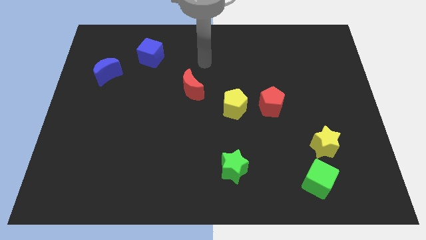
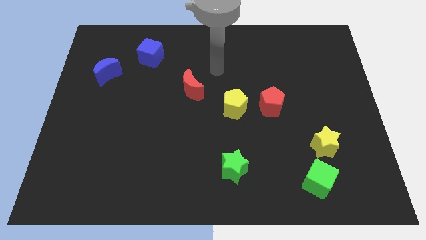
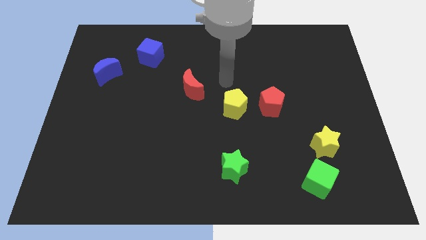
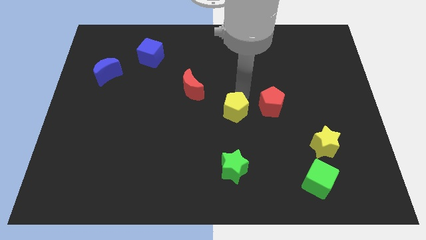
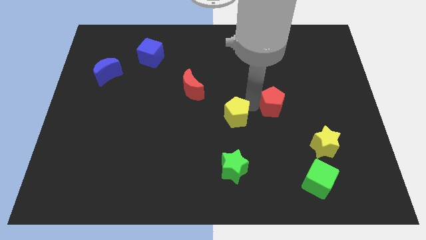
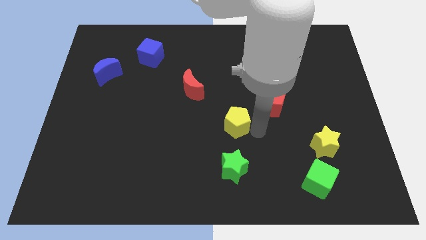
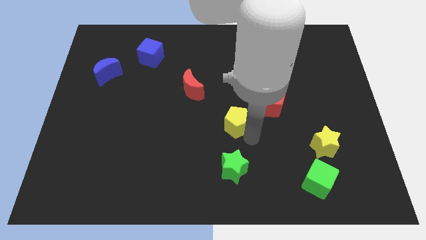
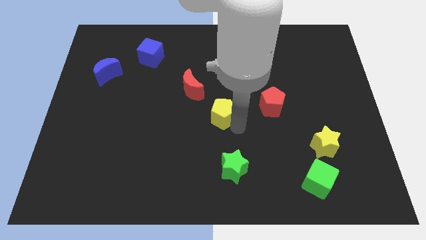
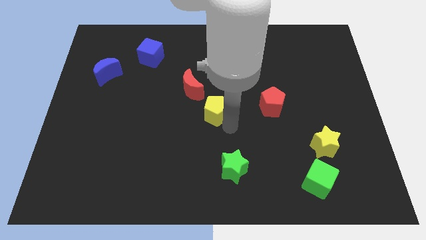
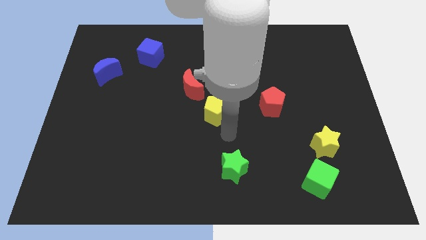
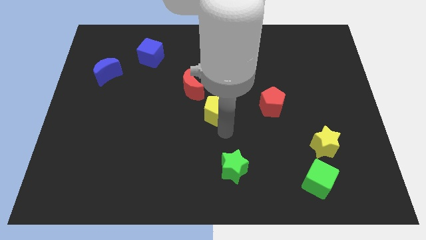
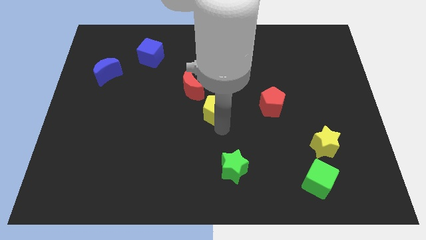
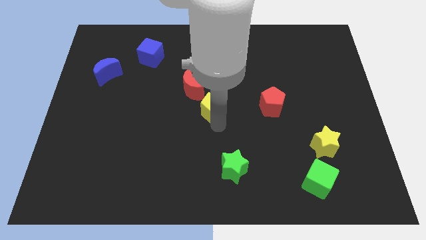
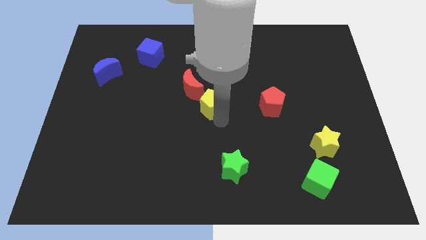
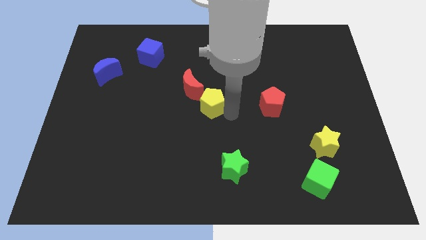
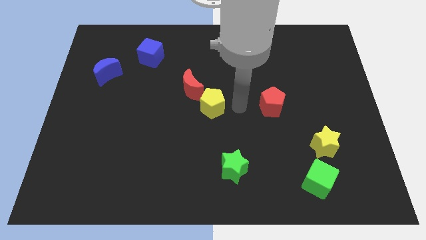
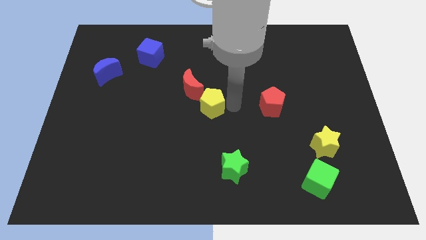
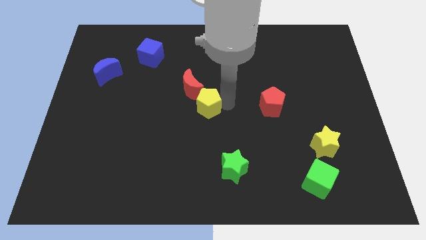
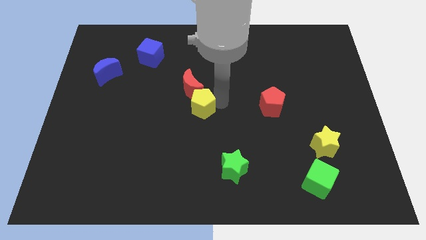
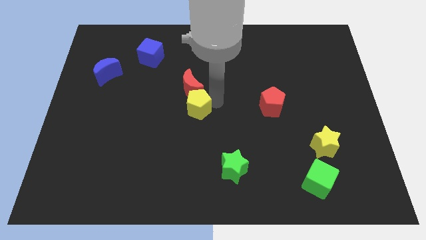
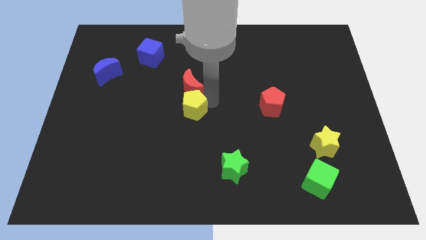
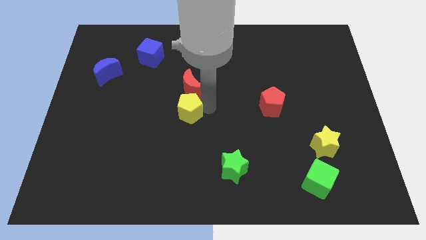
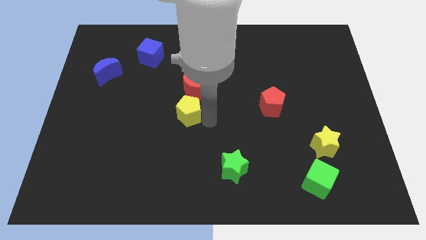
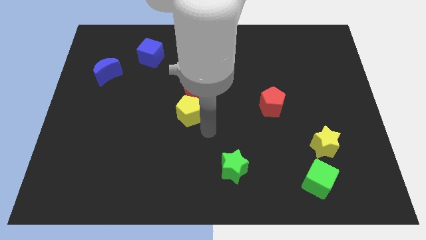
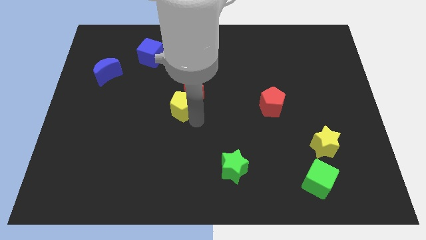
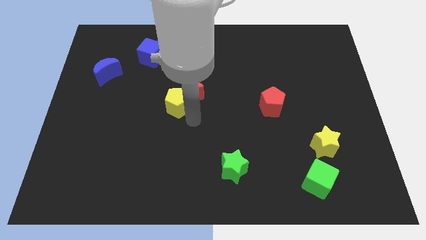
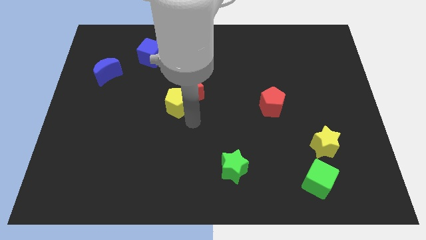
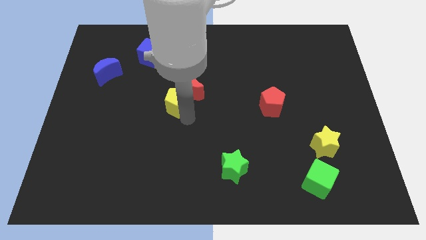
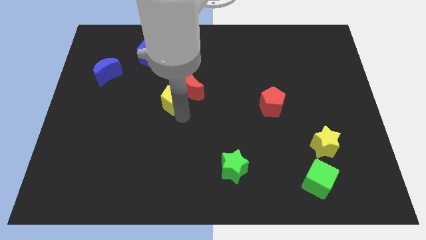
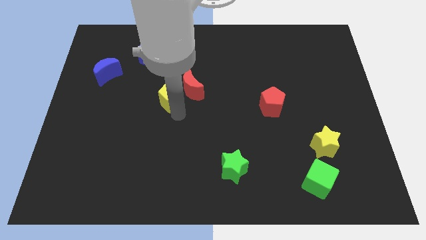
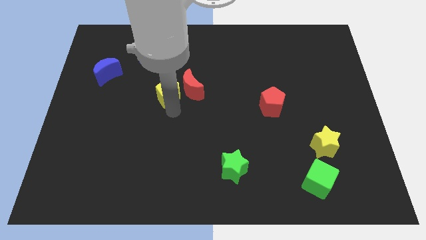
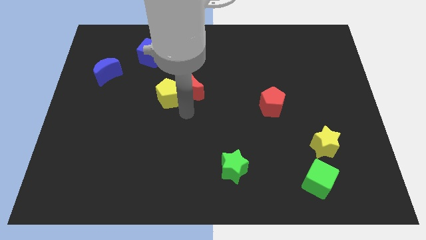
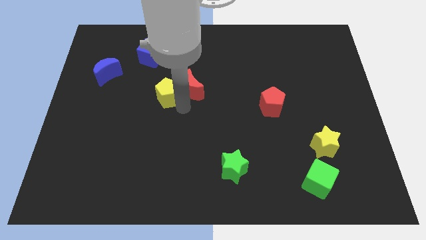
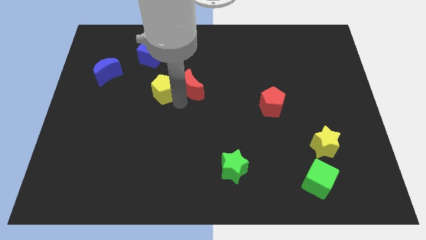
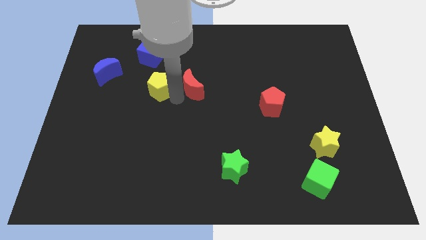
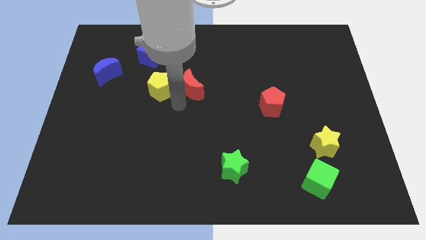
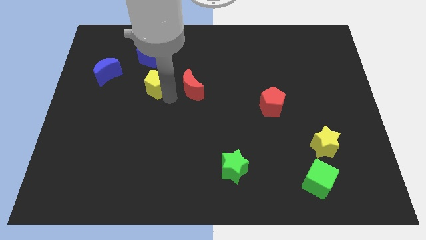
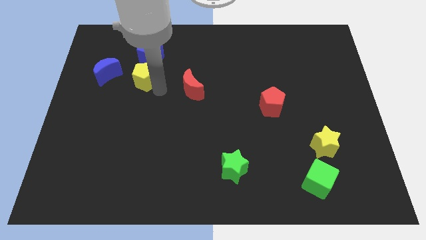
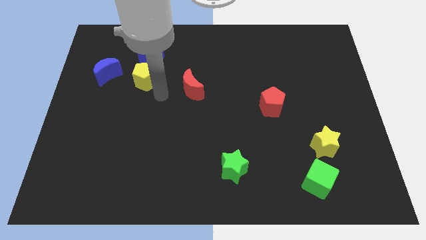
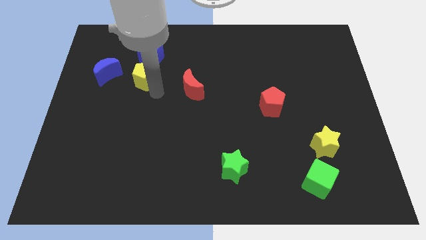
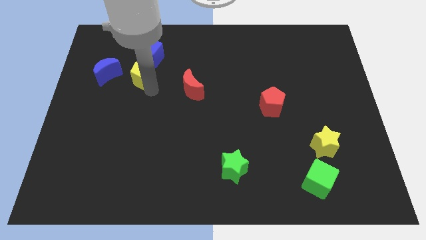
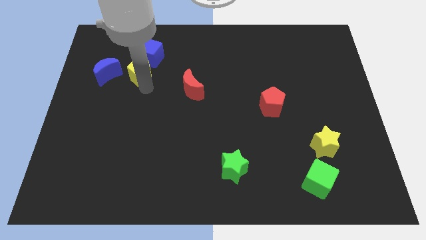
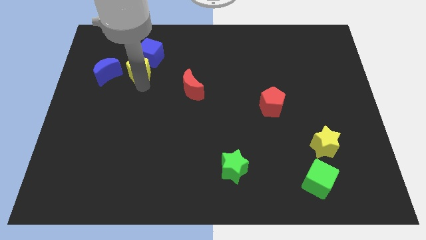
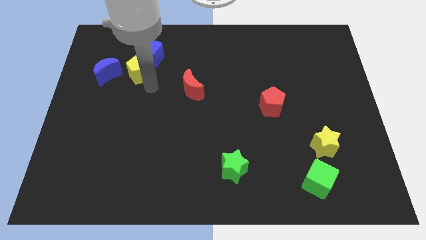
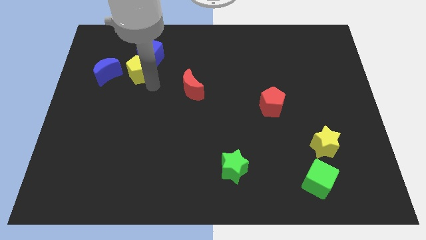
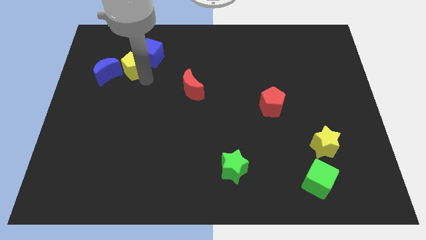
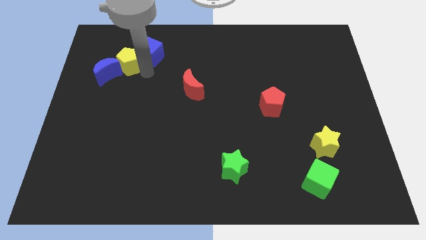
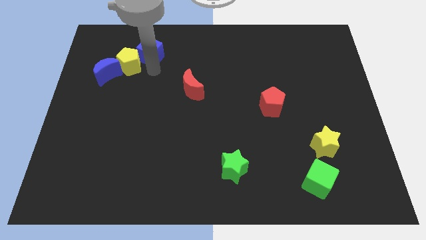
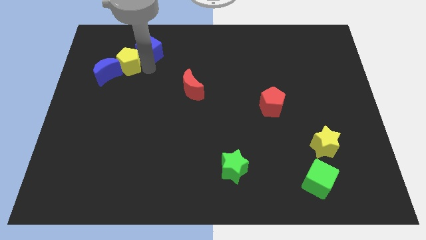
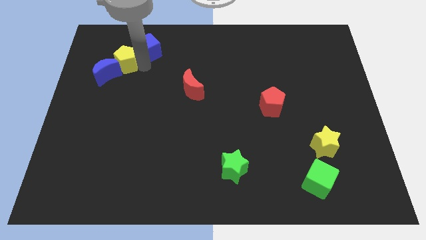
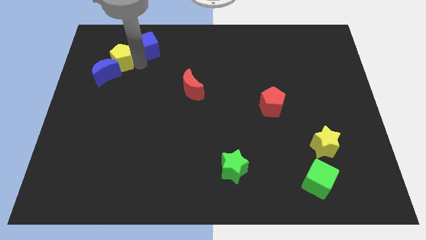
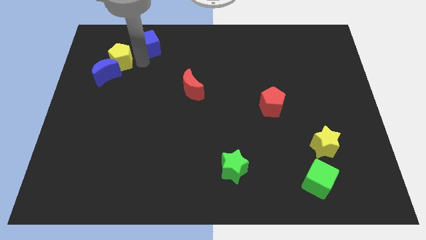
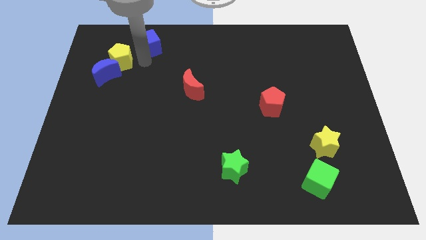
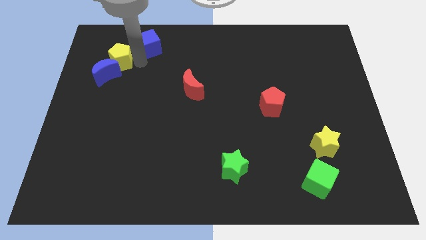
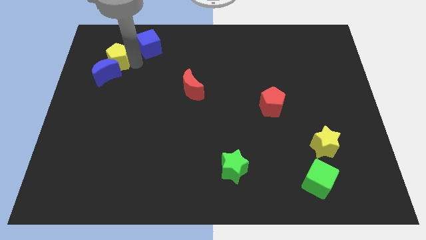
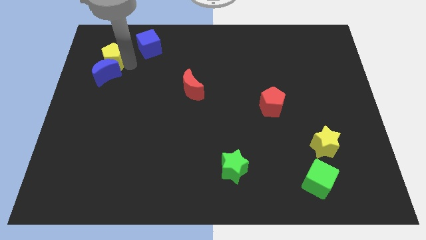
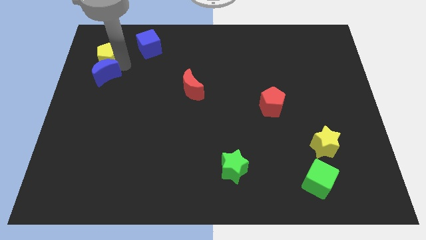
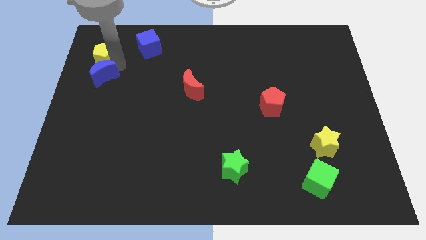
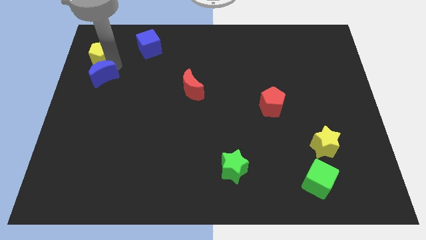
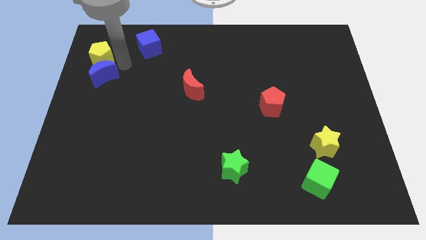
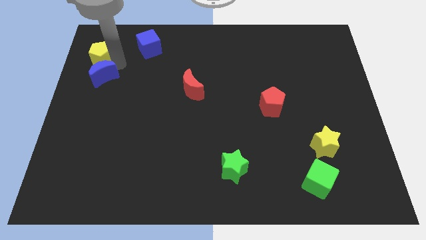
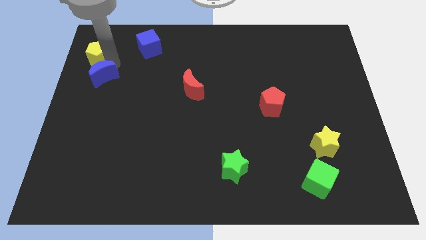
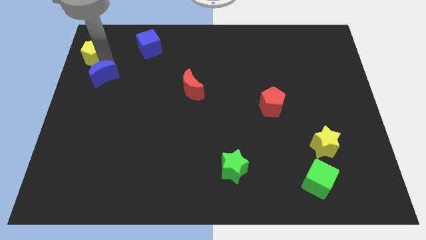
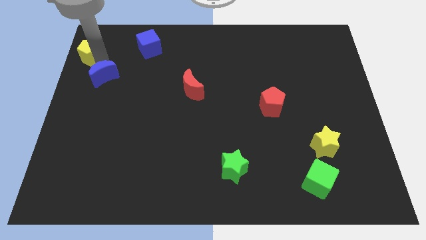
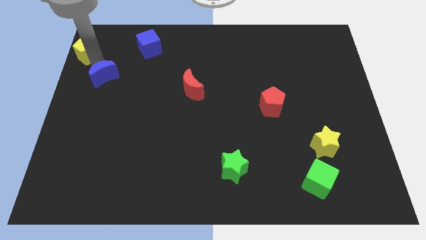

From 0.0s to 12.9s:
put the yellow pentagon to the upper left corner
